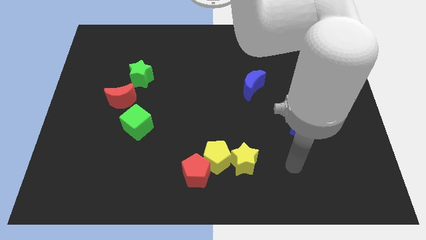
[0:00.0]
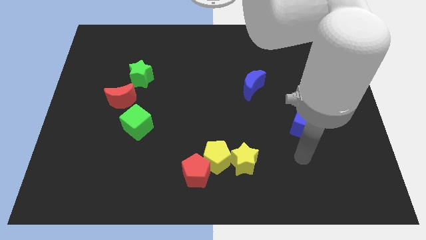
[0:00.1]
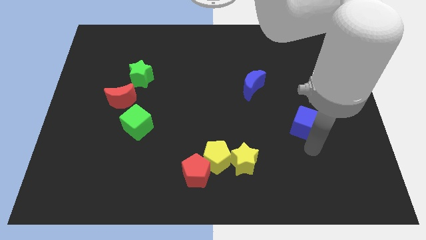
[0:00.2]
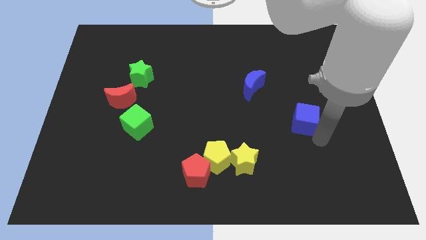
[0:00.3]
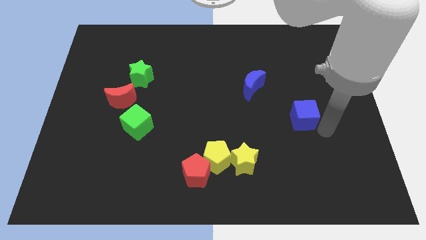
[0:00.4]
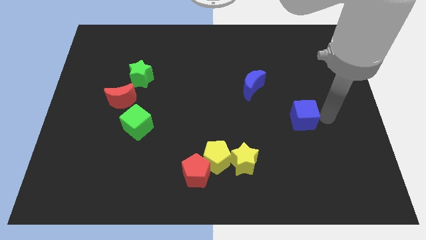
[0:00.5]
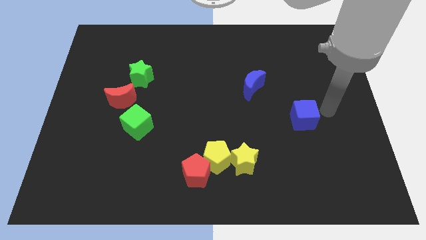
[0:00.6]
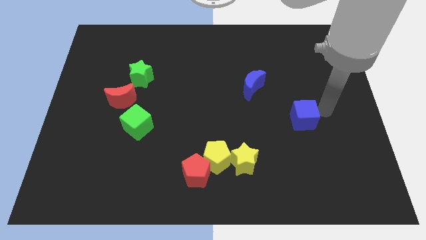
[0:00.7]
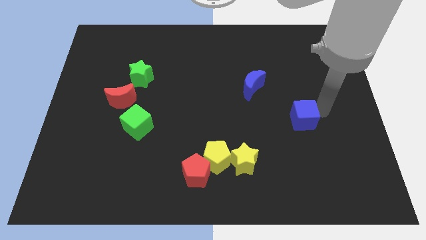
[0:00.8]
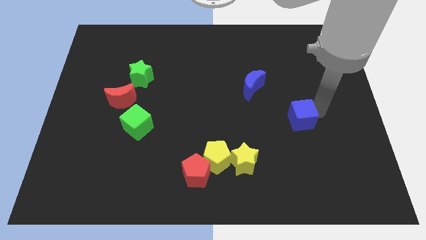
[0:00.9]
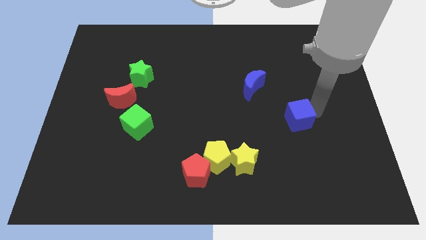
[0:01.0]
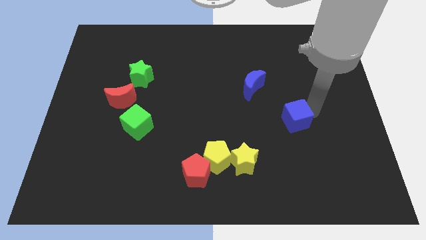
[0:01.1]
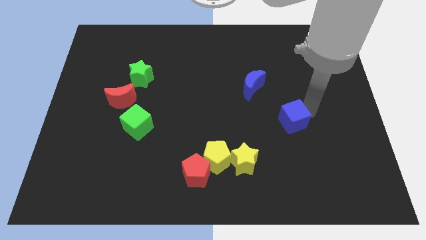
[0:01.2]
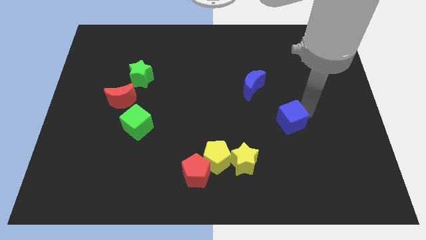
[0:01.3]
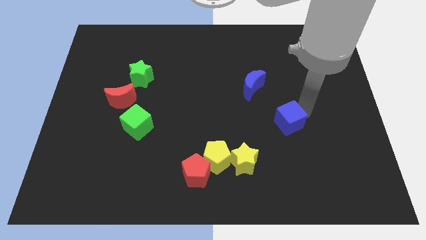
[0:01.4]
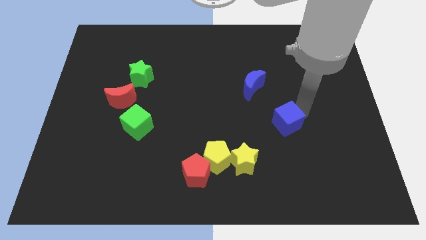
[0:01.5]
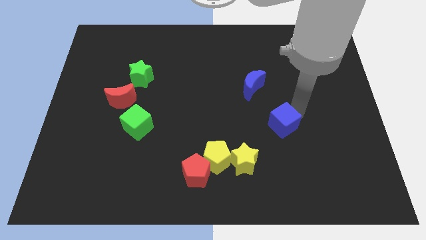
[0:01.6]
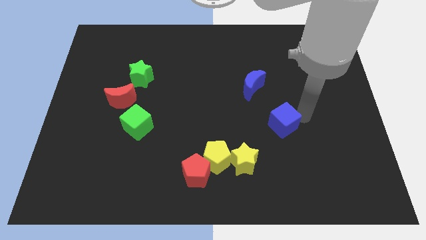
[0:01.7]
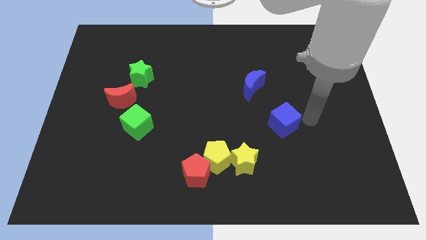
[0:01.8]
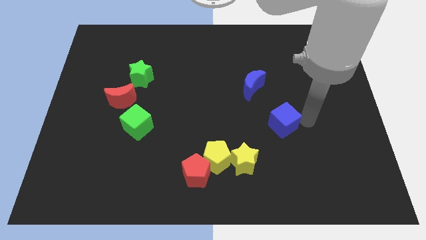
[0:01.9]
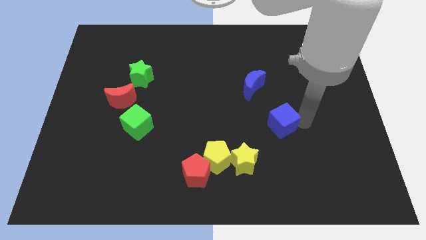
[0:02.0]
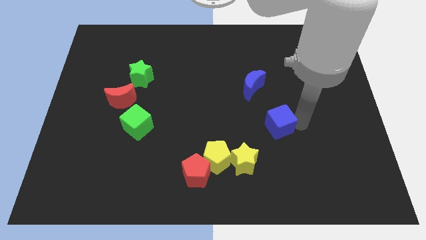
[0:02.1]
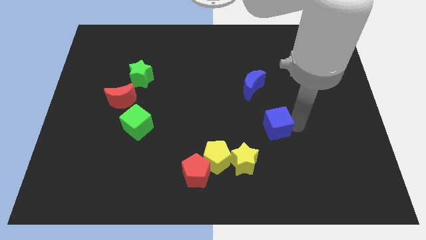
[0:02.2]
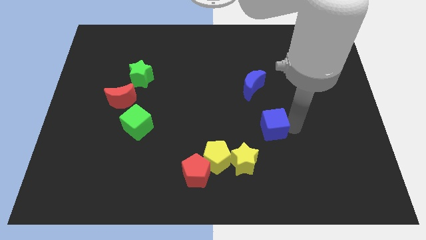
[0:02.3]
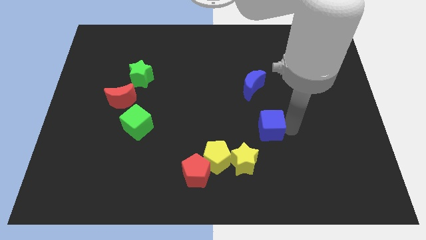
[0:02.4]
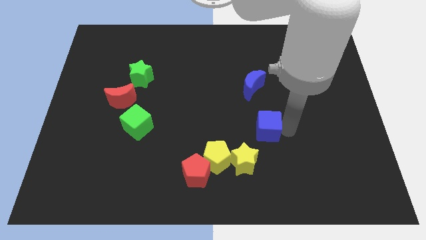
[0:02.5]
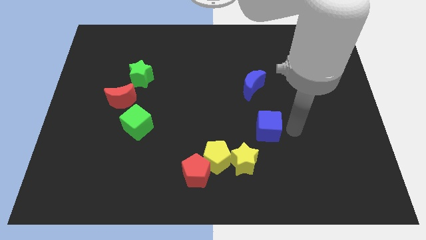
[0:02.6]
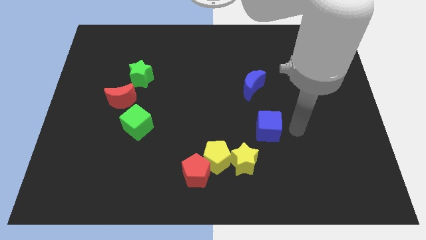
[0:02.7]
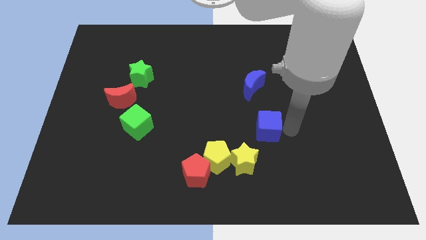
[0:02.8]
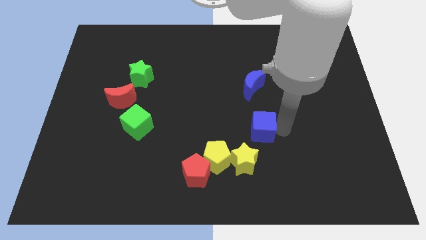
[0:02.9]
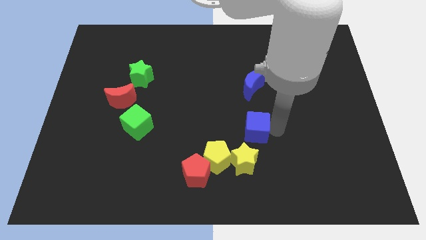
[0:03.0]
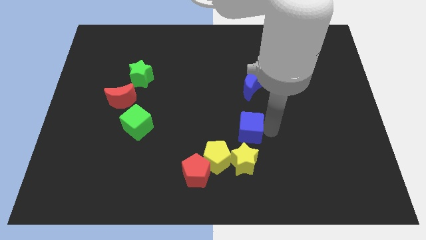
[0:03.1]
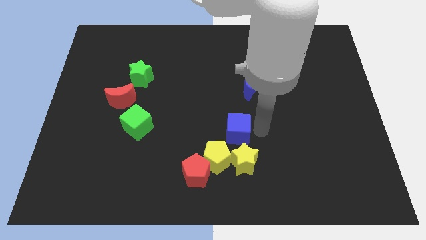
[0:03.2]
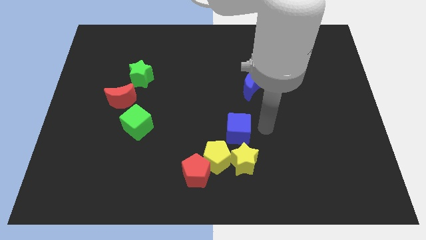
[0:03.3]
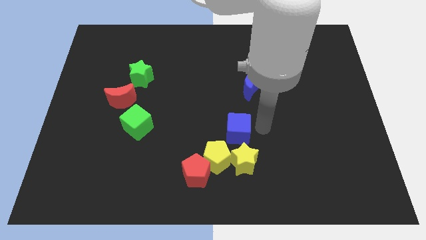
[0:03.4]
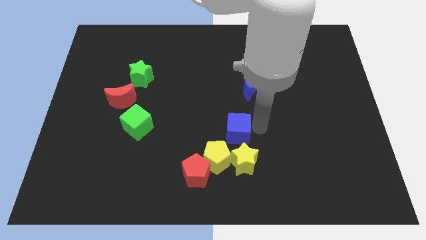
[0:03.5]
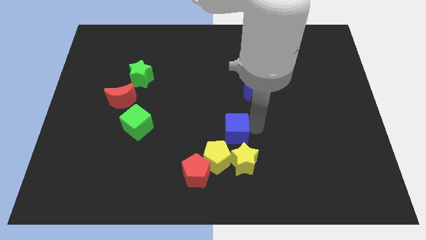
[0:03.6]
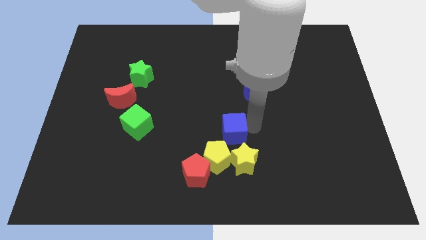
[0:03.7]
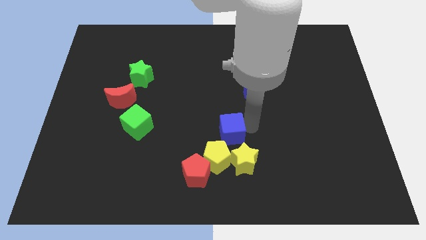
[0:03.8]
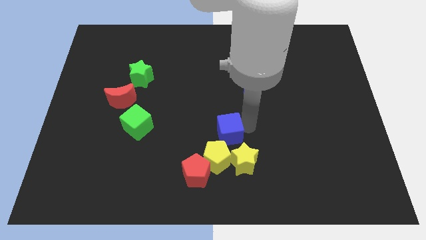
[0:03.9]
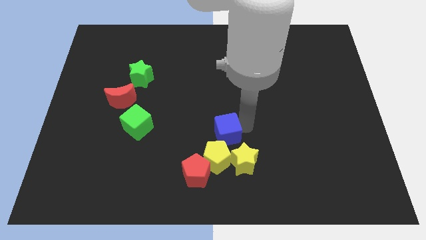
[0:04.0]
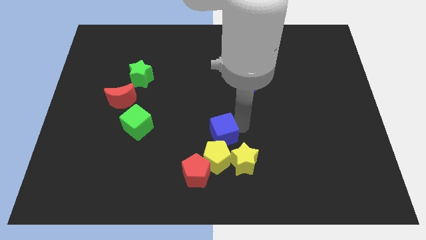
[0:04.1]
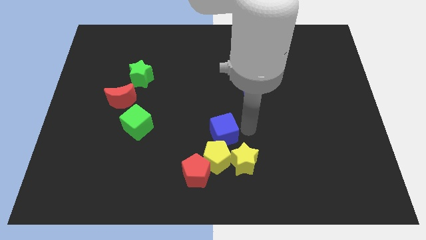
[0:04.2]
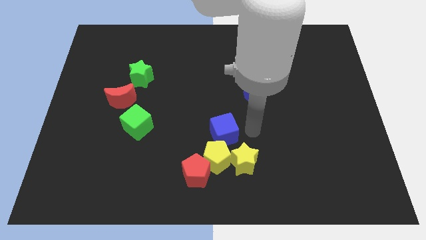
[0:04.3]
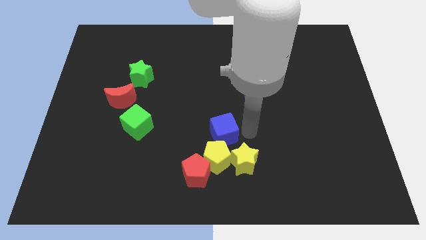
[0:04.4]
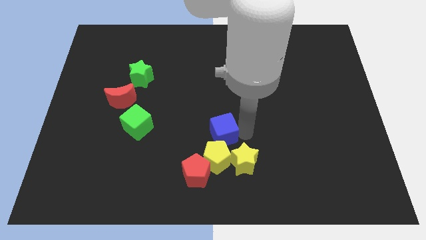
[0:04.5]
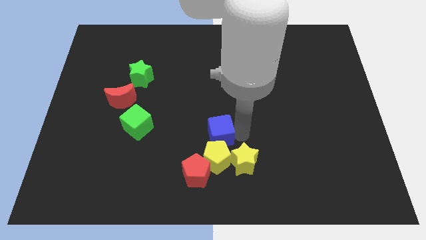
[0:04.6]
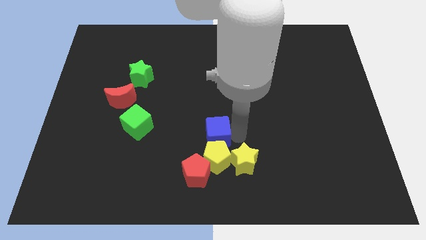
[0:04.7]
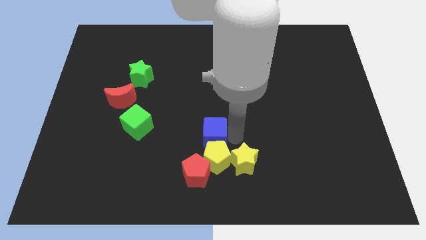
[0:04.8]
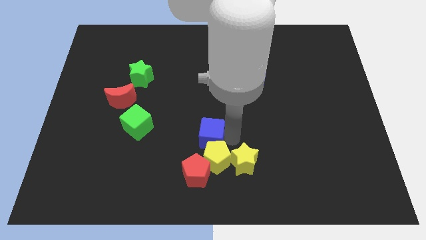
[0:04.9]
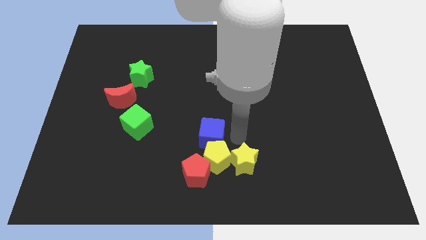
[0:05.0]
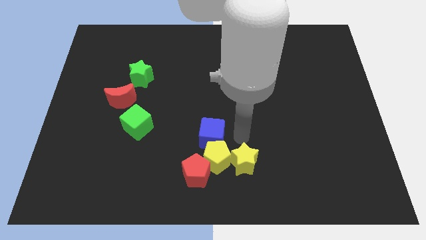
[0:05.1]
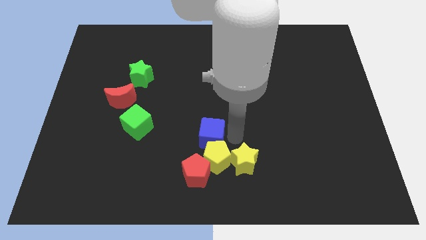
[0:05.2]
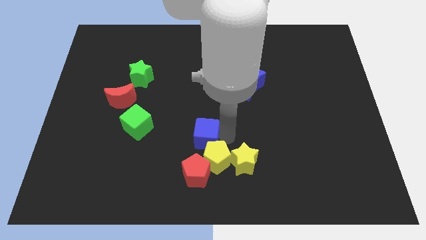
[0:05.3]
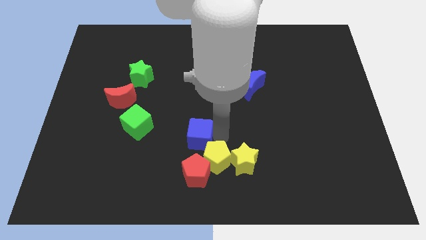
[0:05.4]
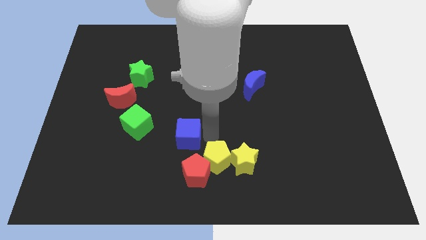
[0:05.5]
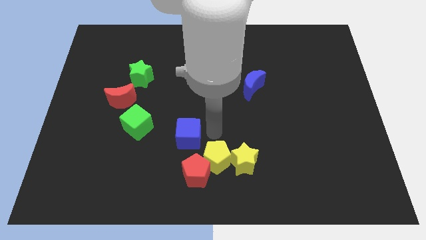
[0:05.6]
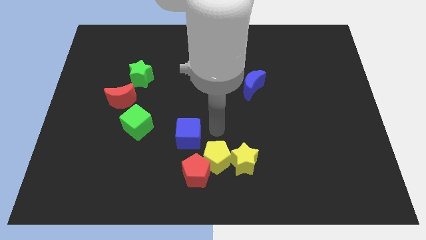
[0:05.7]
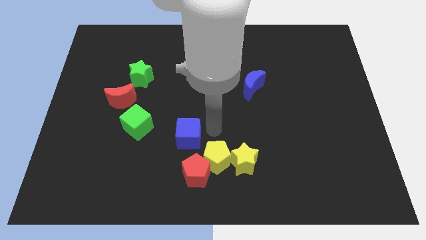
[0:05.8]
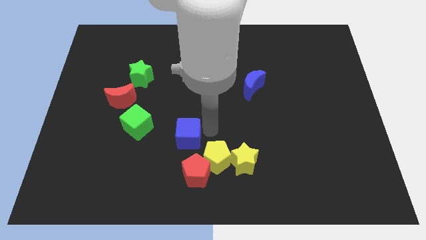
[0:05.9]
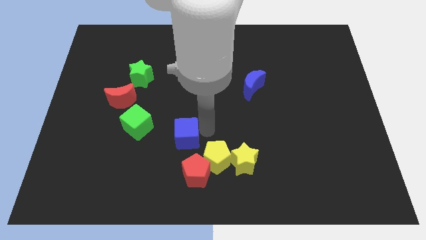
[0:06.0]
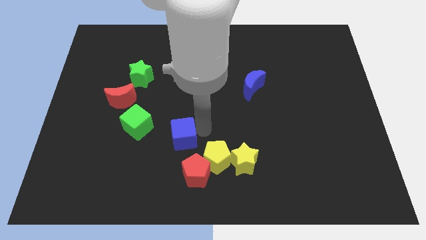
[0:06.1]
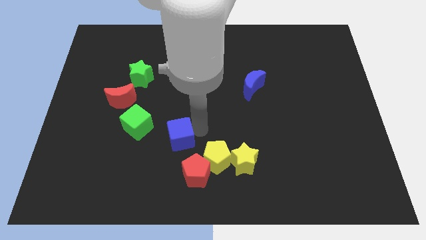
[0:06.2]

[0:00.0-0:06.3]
put the blue cube diagonally down and to the right of the green cube

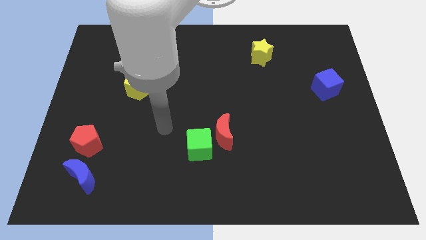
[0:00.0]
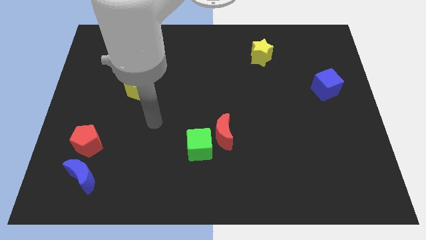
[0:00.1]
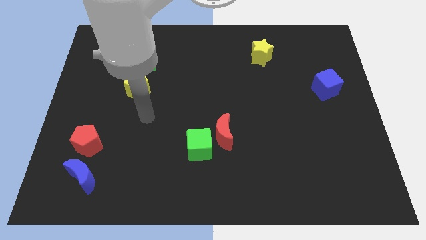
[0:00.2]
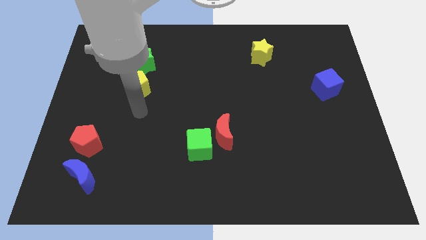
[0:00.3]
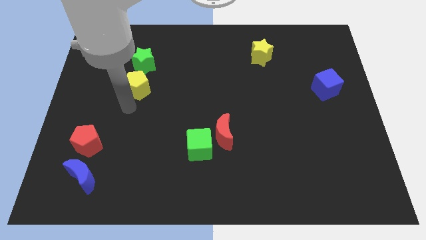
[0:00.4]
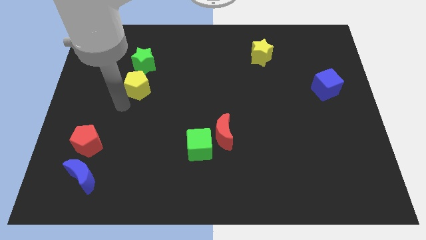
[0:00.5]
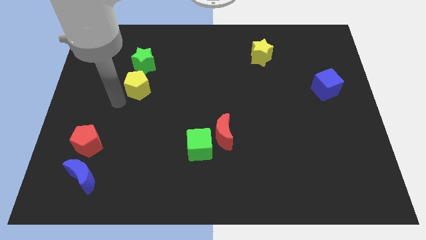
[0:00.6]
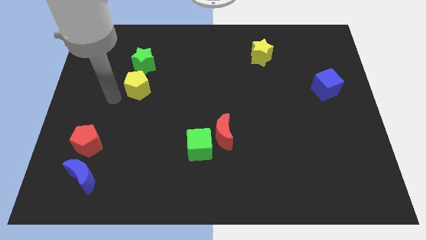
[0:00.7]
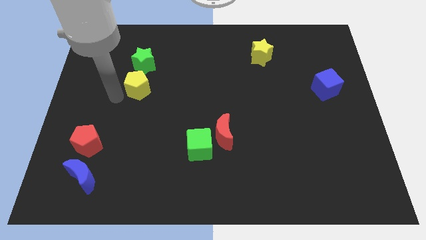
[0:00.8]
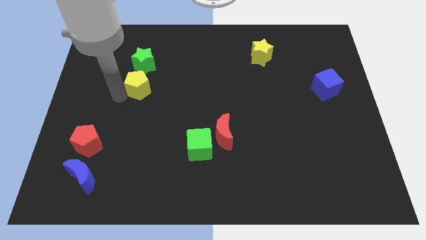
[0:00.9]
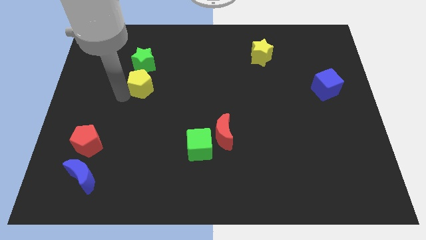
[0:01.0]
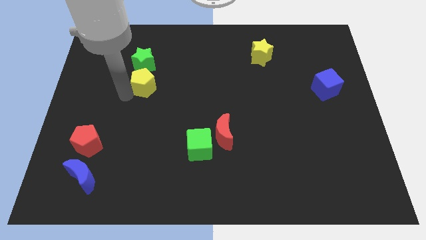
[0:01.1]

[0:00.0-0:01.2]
put the yellow pentagon diagonally down and to the right of the green star

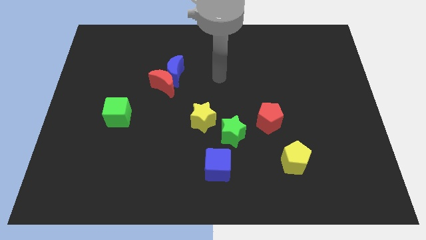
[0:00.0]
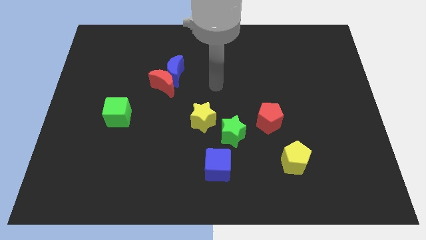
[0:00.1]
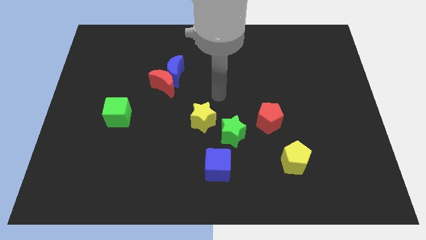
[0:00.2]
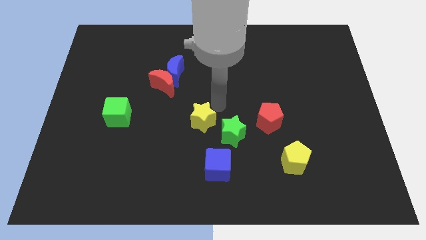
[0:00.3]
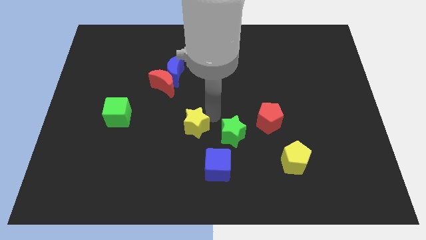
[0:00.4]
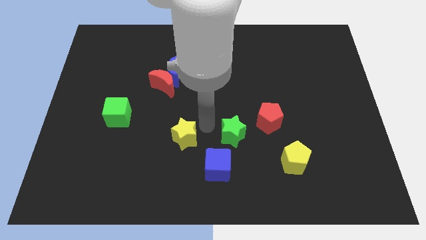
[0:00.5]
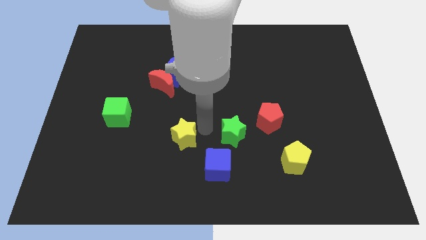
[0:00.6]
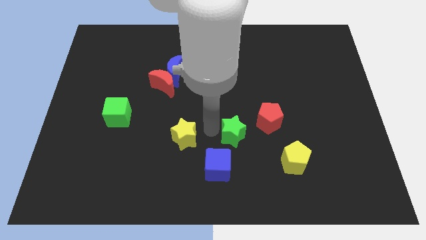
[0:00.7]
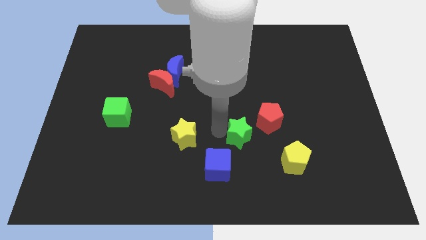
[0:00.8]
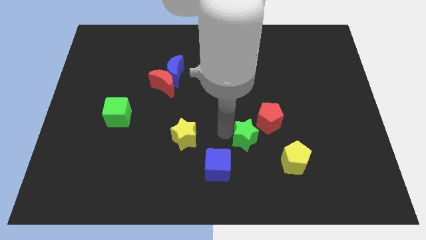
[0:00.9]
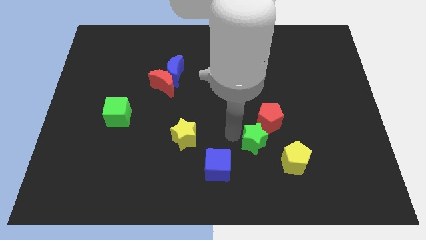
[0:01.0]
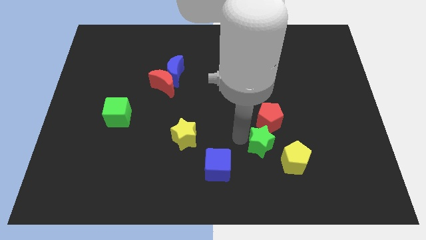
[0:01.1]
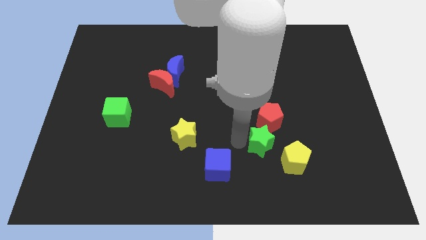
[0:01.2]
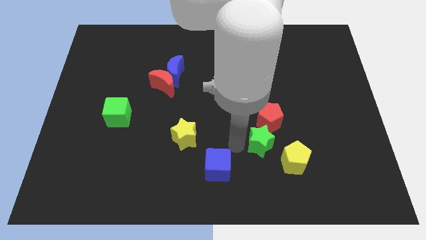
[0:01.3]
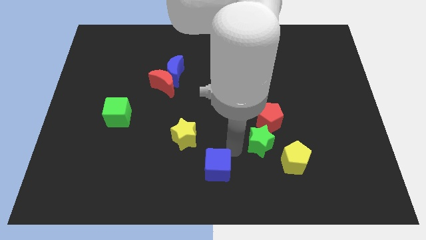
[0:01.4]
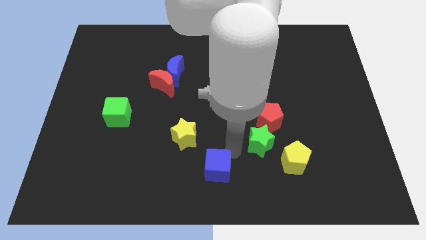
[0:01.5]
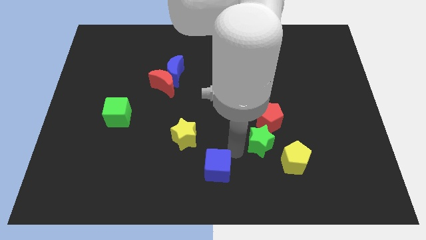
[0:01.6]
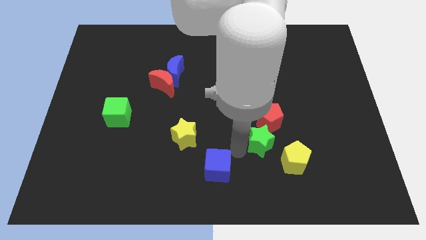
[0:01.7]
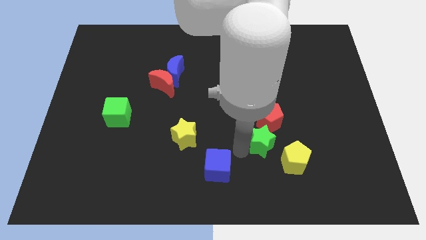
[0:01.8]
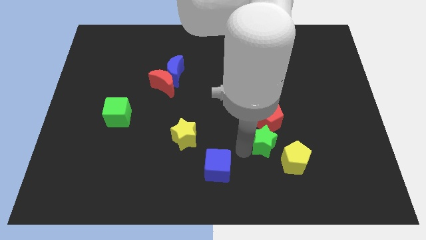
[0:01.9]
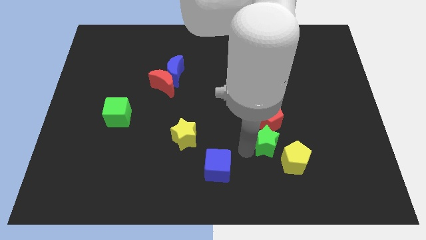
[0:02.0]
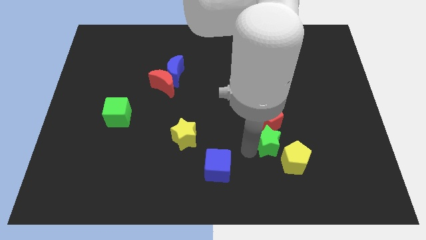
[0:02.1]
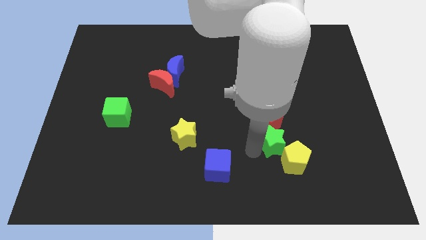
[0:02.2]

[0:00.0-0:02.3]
put the green star above the yellow pentagon
